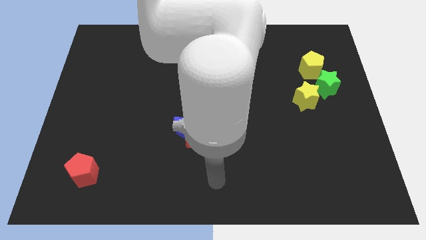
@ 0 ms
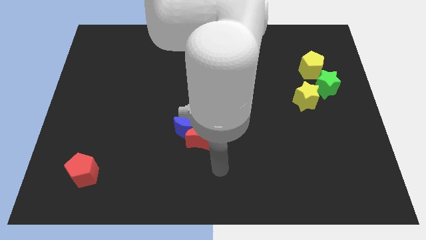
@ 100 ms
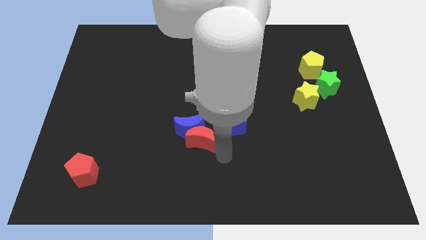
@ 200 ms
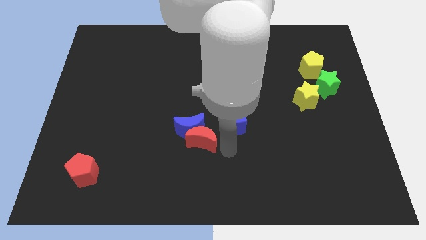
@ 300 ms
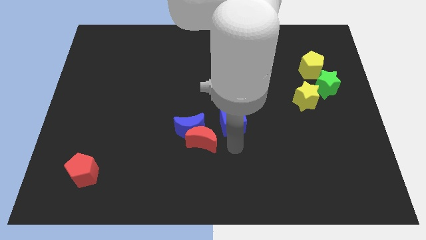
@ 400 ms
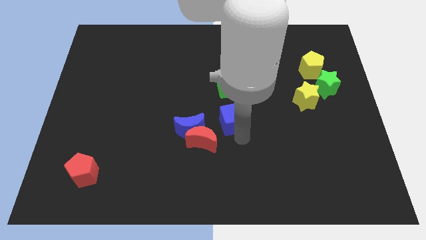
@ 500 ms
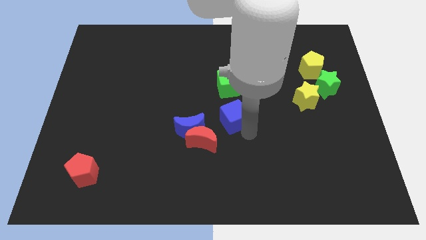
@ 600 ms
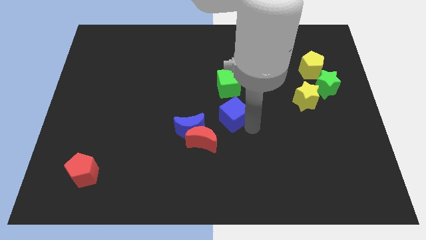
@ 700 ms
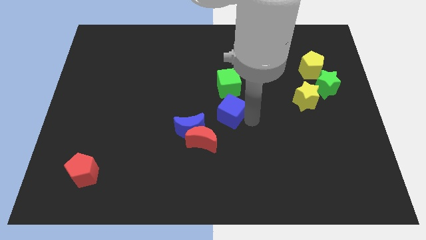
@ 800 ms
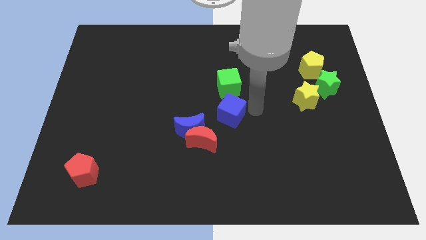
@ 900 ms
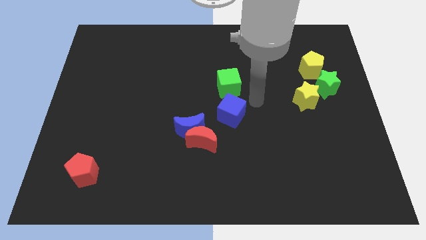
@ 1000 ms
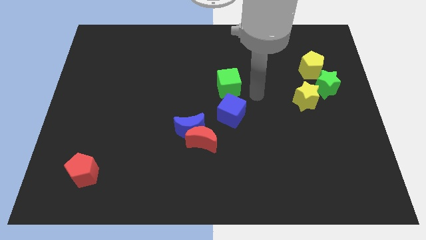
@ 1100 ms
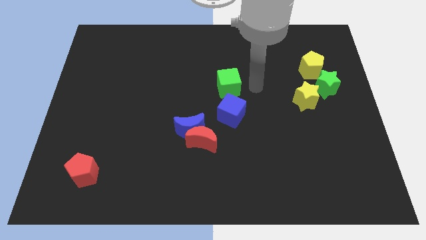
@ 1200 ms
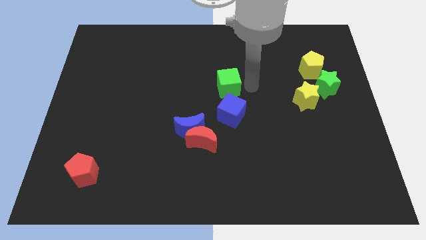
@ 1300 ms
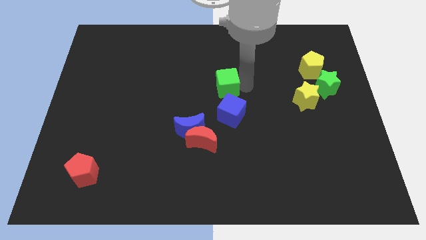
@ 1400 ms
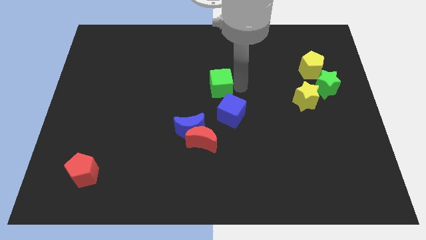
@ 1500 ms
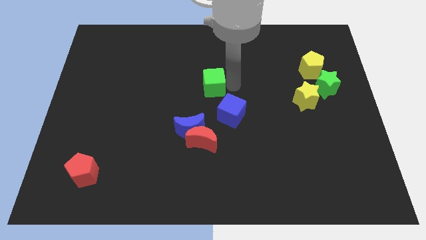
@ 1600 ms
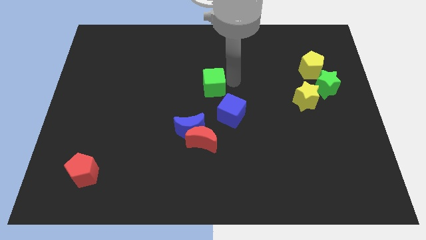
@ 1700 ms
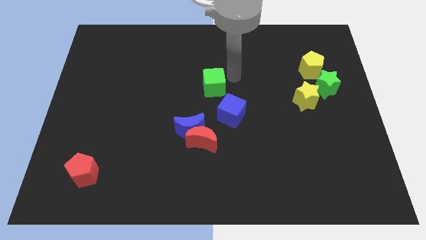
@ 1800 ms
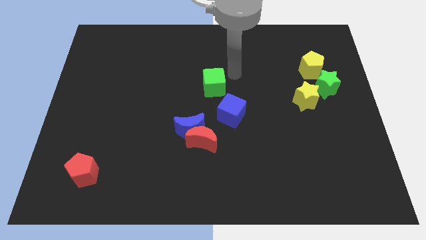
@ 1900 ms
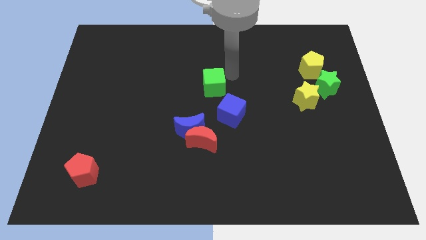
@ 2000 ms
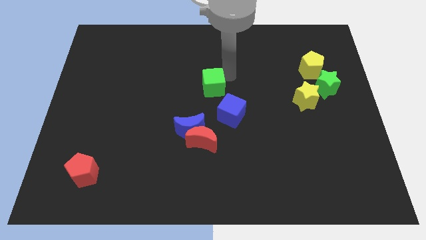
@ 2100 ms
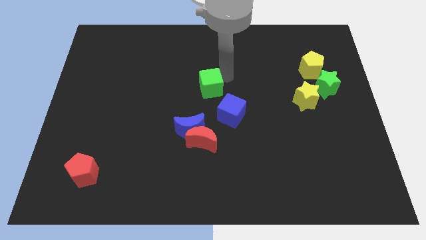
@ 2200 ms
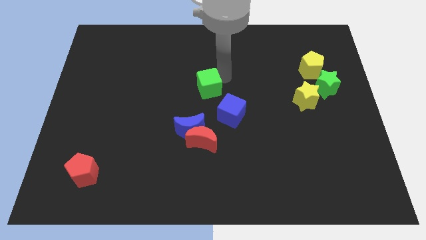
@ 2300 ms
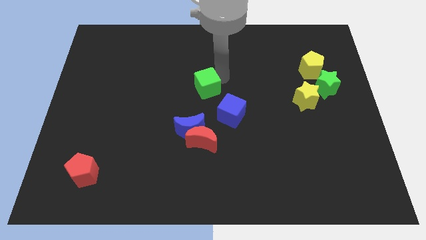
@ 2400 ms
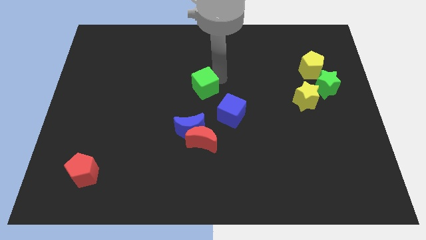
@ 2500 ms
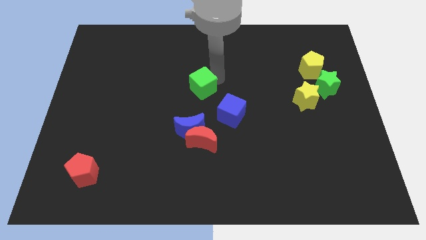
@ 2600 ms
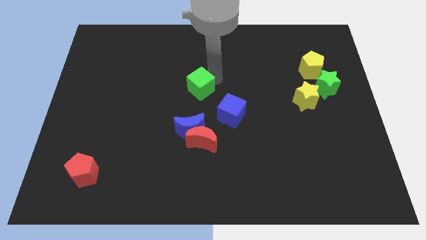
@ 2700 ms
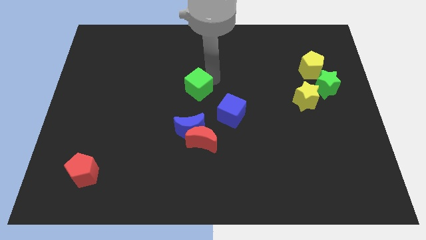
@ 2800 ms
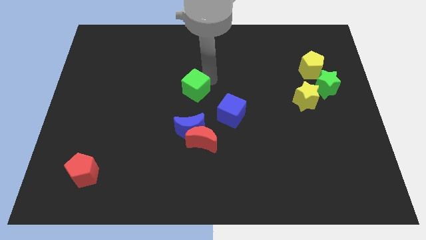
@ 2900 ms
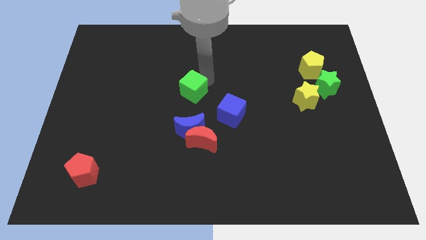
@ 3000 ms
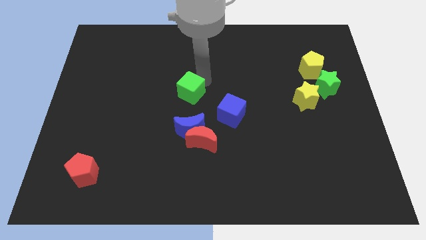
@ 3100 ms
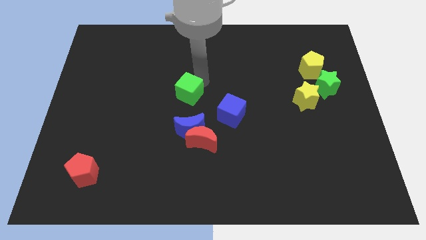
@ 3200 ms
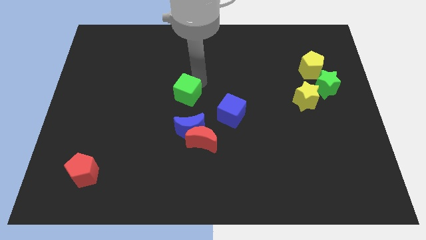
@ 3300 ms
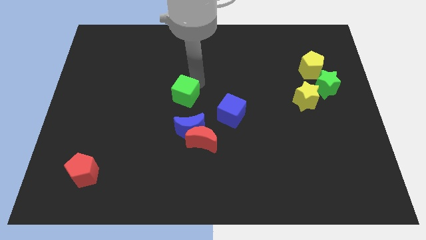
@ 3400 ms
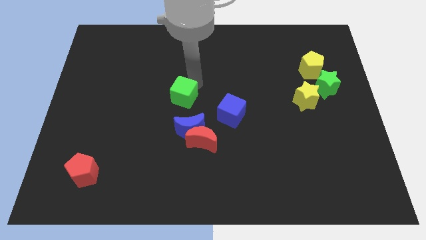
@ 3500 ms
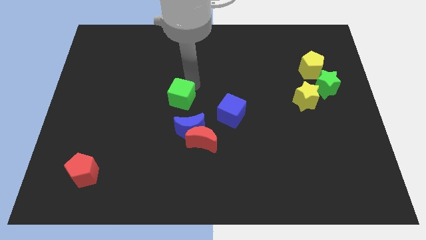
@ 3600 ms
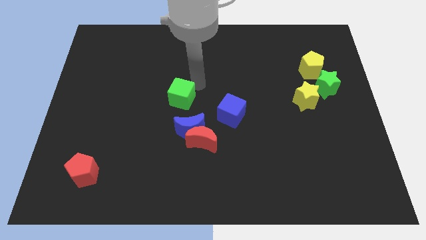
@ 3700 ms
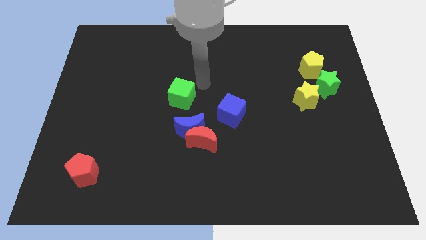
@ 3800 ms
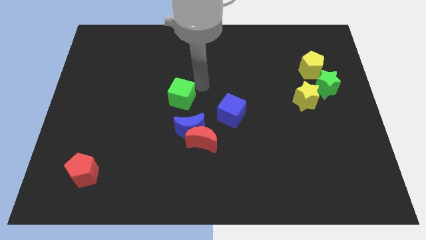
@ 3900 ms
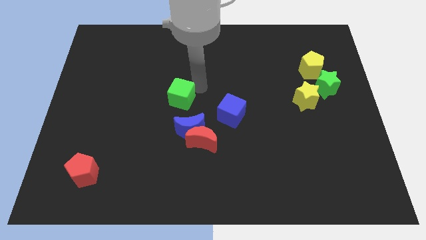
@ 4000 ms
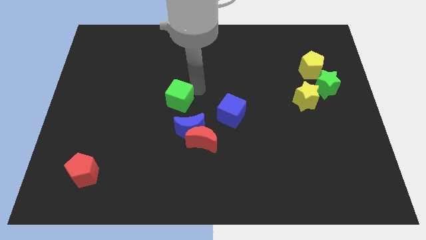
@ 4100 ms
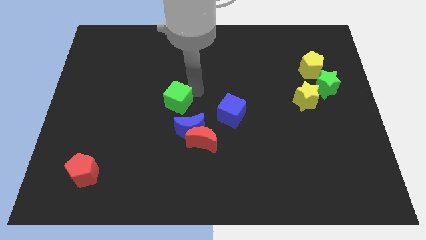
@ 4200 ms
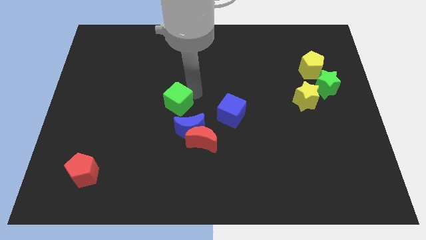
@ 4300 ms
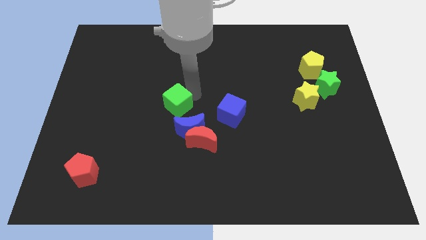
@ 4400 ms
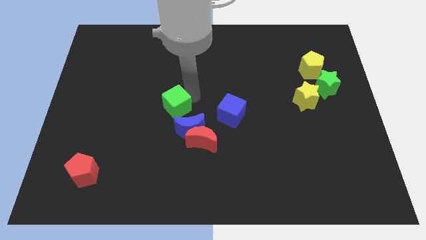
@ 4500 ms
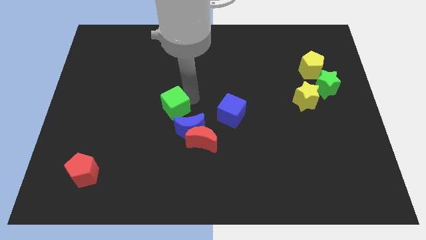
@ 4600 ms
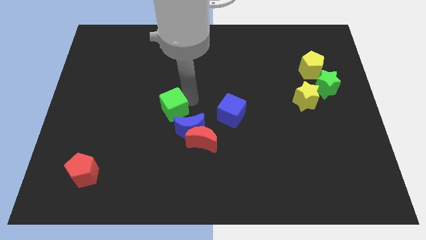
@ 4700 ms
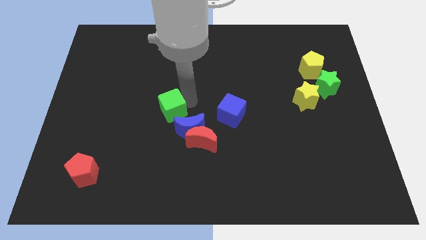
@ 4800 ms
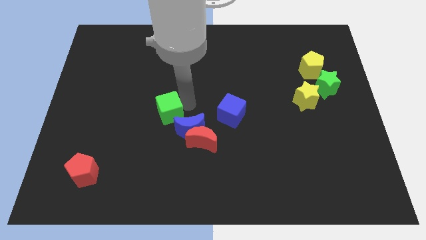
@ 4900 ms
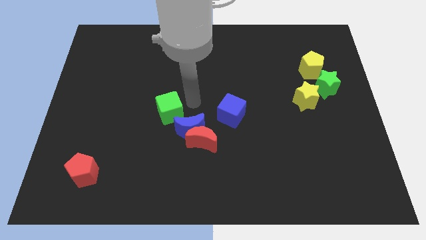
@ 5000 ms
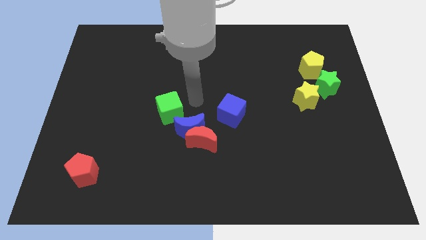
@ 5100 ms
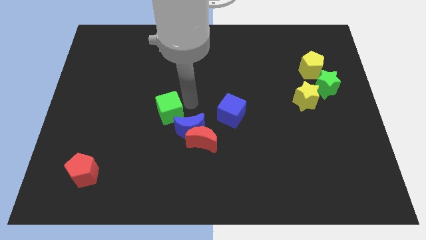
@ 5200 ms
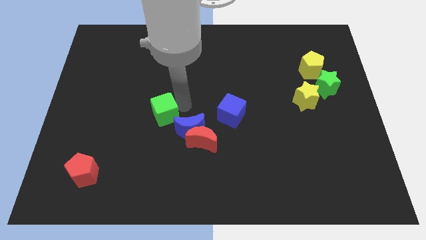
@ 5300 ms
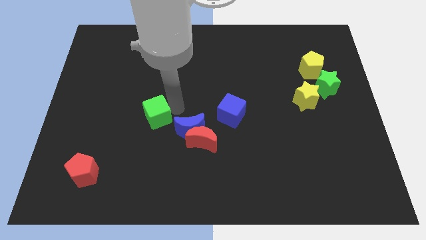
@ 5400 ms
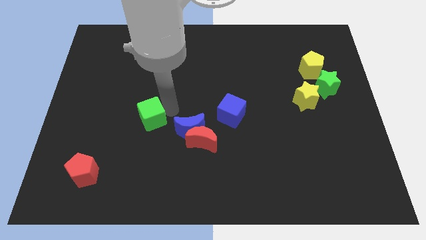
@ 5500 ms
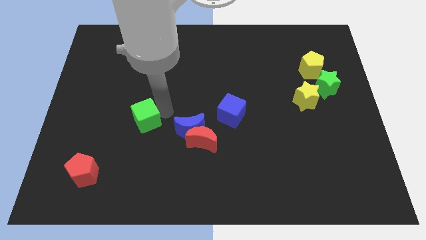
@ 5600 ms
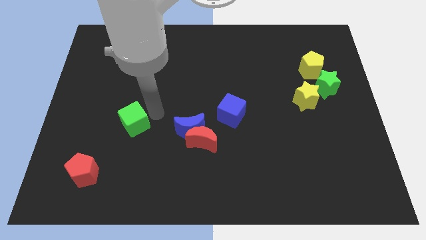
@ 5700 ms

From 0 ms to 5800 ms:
push the green cube downwards and then to the left

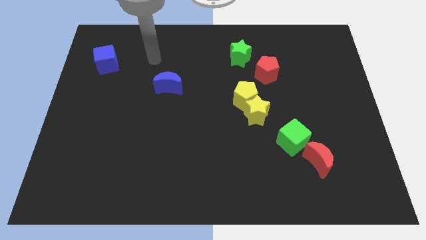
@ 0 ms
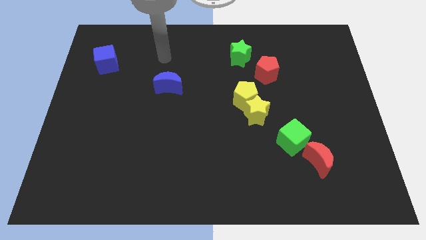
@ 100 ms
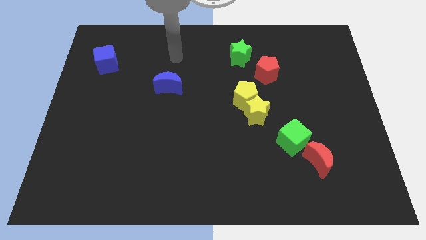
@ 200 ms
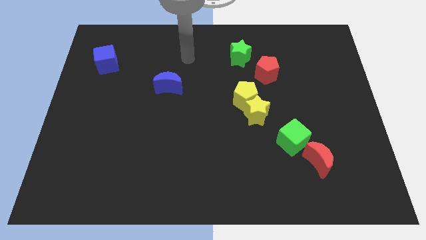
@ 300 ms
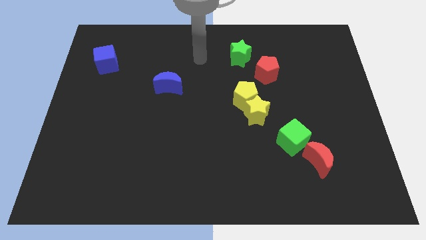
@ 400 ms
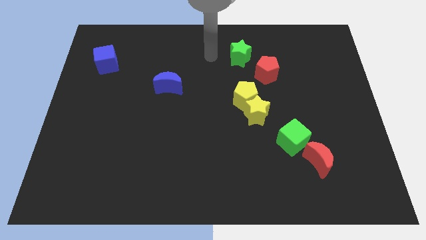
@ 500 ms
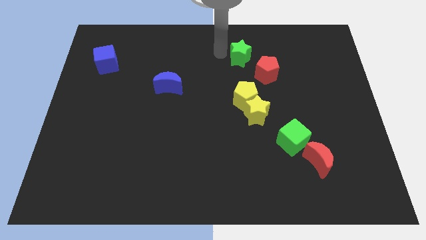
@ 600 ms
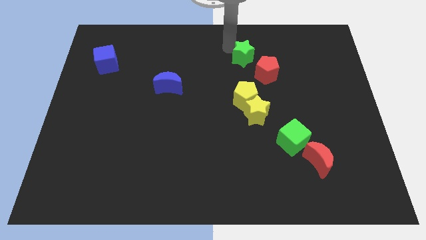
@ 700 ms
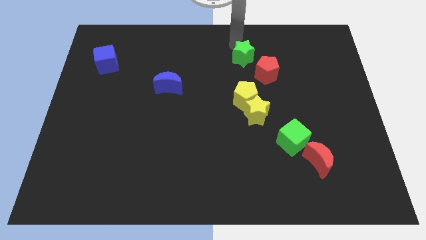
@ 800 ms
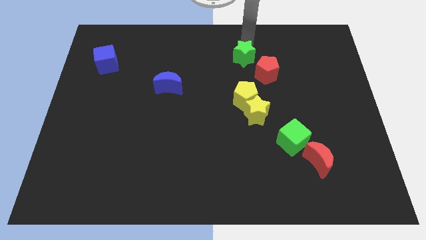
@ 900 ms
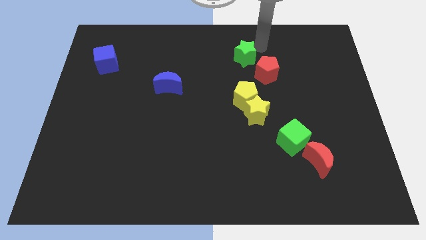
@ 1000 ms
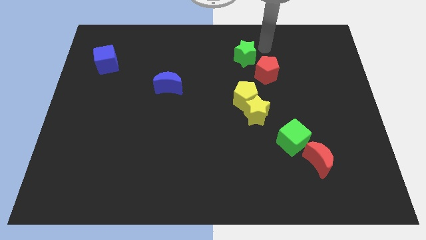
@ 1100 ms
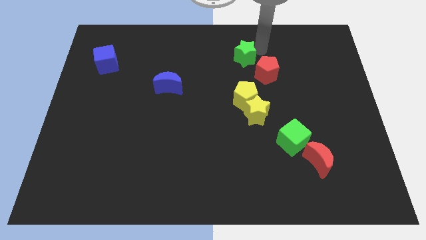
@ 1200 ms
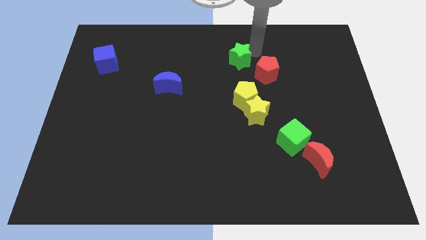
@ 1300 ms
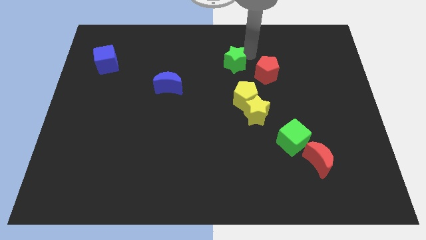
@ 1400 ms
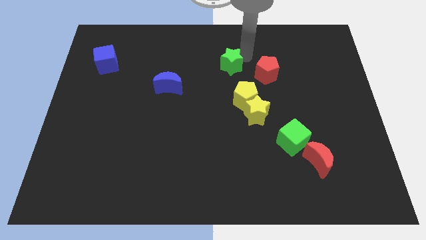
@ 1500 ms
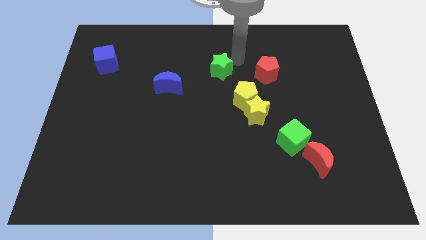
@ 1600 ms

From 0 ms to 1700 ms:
push the green star down and to the left diagonally a little bit

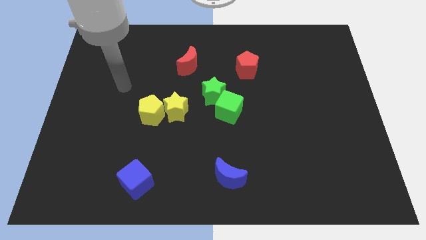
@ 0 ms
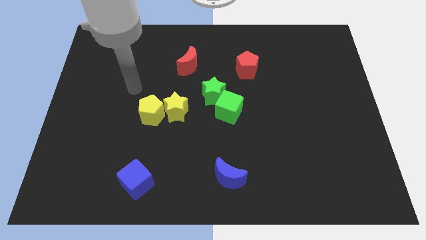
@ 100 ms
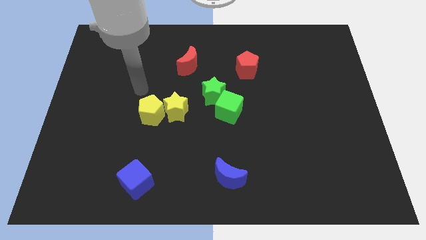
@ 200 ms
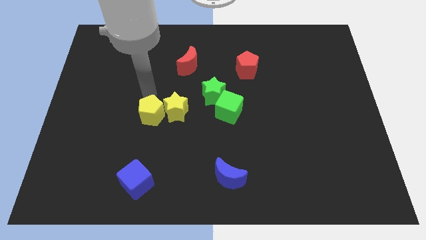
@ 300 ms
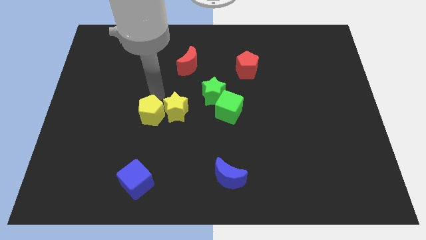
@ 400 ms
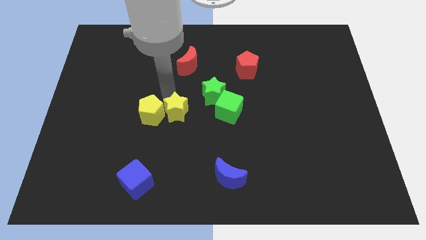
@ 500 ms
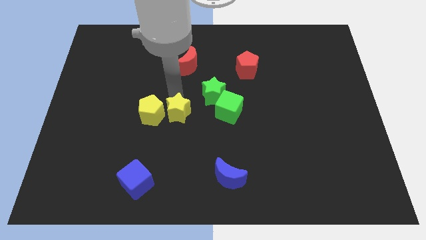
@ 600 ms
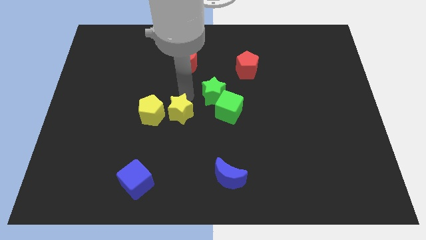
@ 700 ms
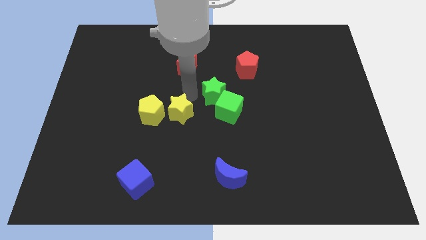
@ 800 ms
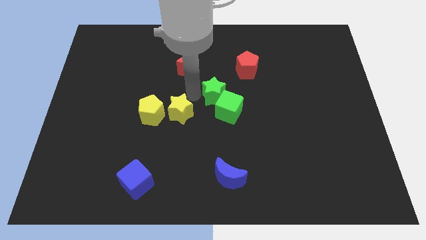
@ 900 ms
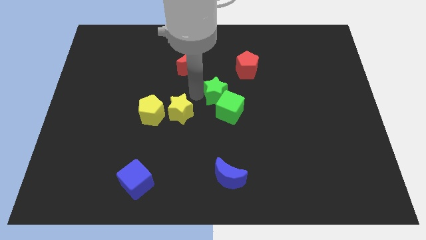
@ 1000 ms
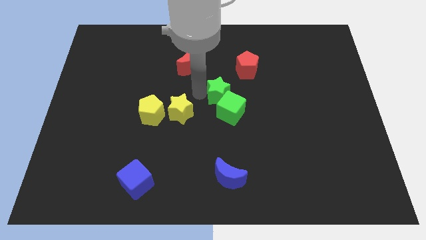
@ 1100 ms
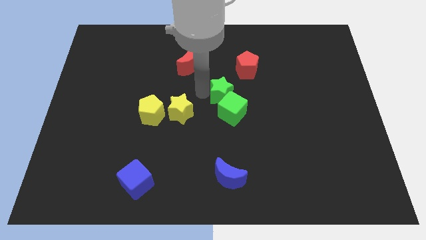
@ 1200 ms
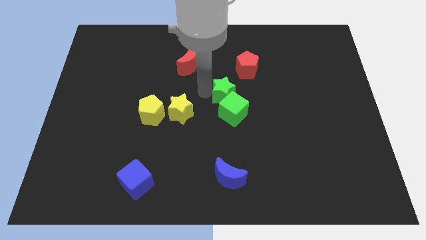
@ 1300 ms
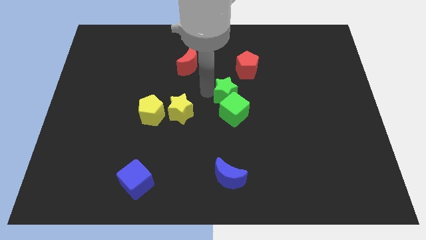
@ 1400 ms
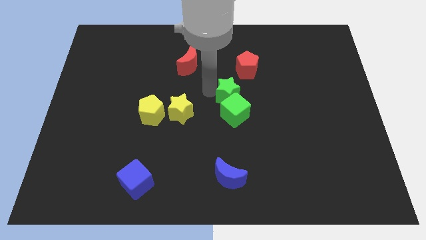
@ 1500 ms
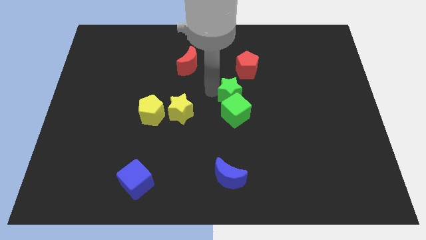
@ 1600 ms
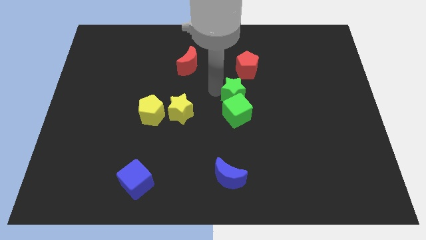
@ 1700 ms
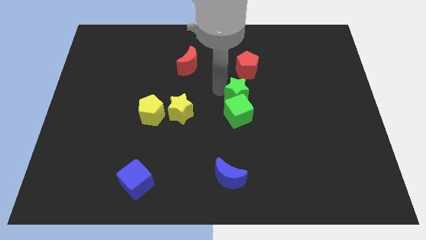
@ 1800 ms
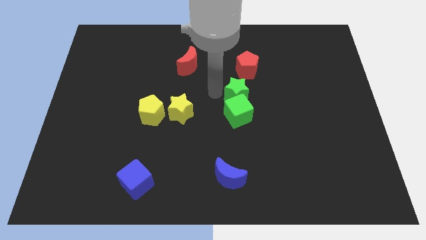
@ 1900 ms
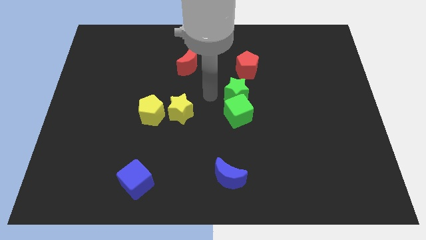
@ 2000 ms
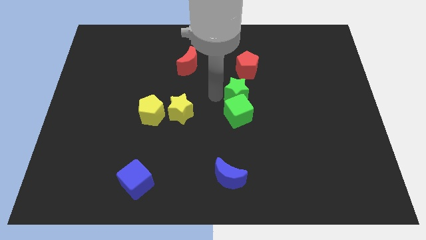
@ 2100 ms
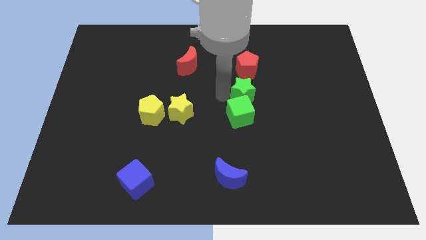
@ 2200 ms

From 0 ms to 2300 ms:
push the green star to the right a little
